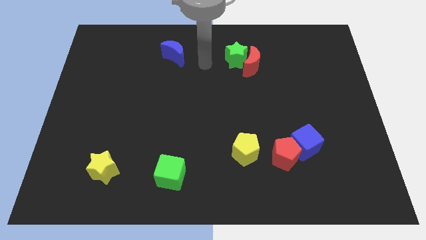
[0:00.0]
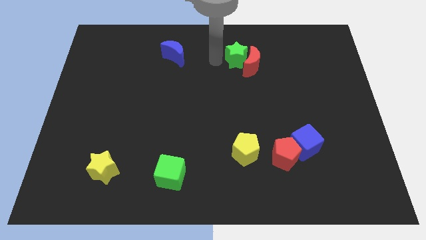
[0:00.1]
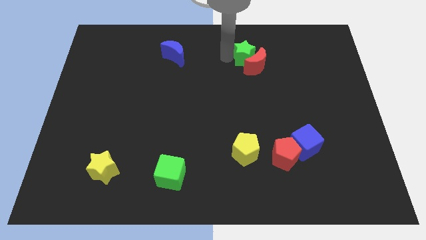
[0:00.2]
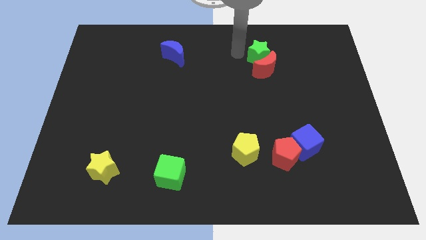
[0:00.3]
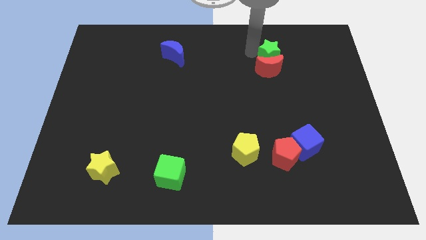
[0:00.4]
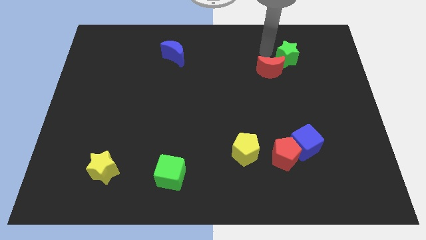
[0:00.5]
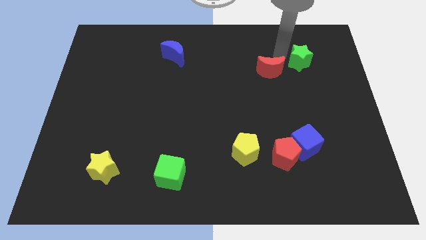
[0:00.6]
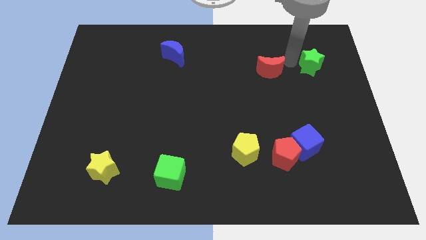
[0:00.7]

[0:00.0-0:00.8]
pull the red moon apart from the green star

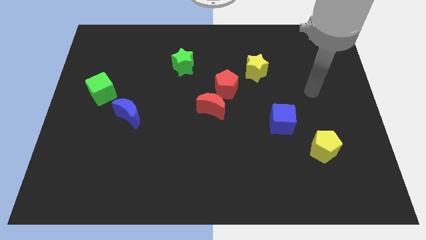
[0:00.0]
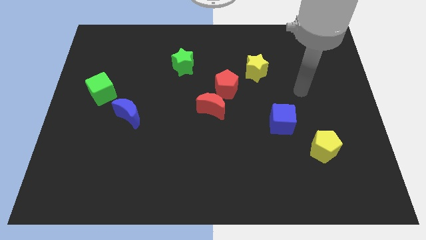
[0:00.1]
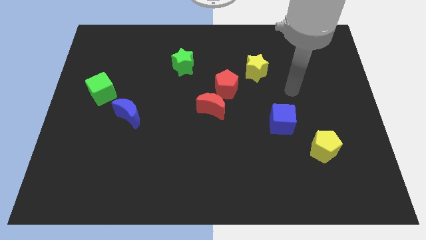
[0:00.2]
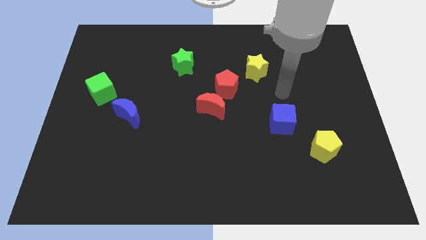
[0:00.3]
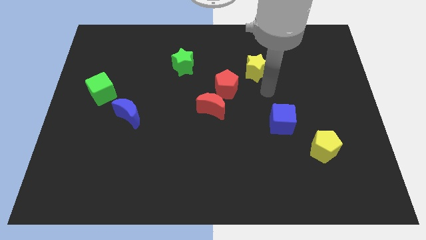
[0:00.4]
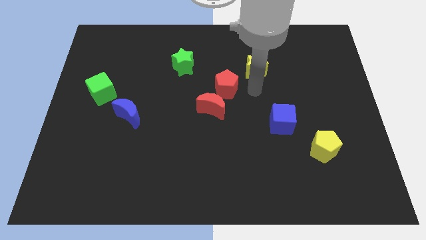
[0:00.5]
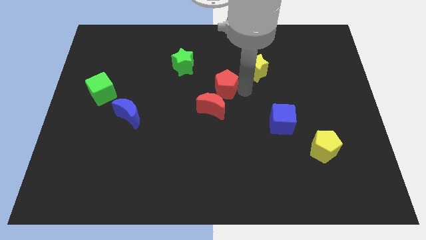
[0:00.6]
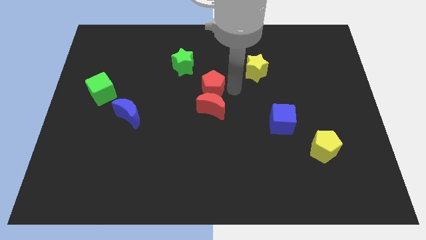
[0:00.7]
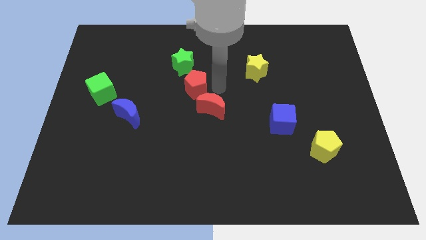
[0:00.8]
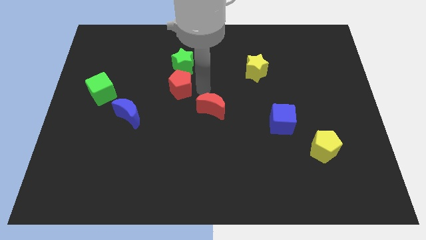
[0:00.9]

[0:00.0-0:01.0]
pull the red moon apart from the red pentagon

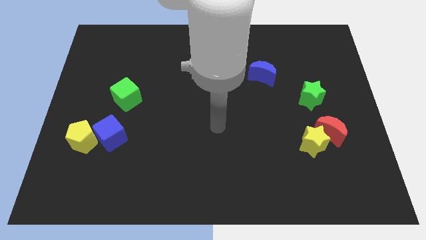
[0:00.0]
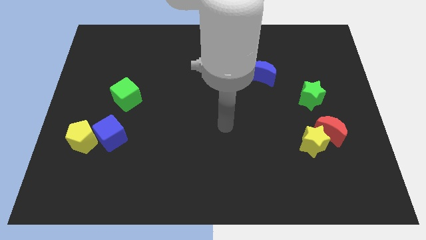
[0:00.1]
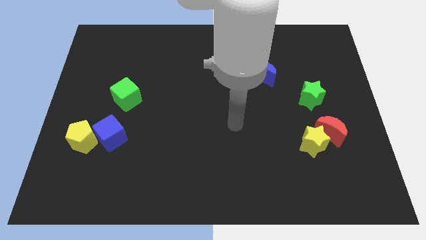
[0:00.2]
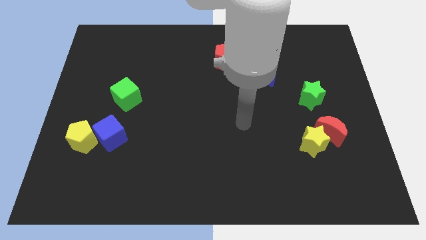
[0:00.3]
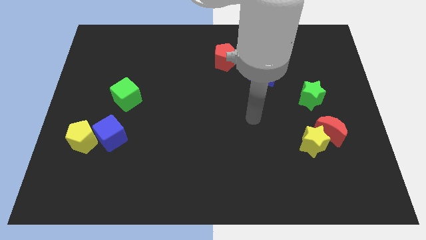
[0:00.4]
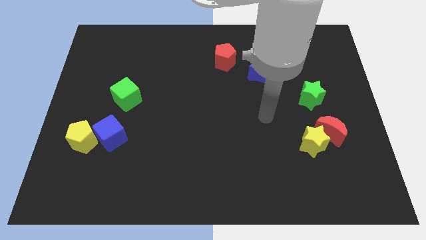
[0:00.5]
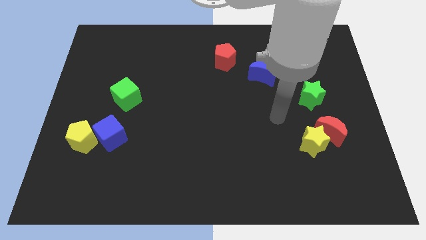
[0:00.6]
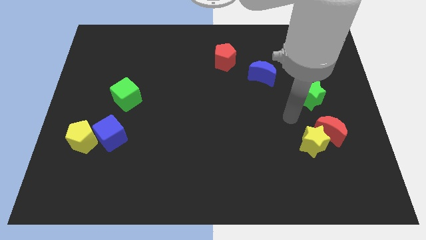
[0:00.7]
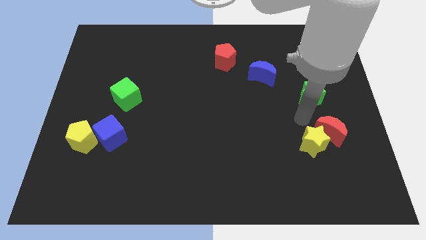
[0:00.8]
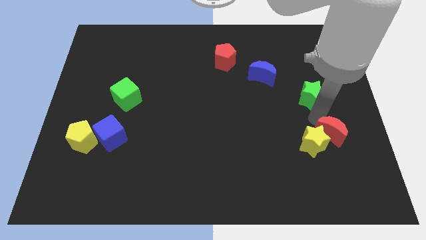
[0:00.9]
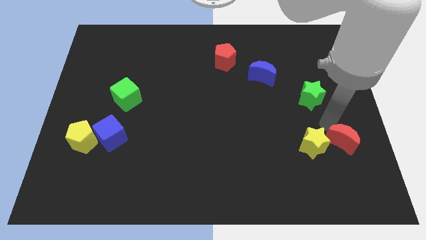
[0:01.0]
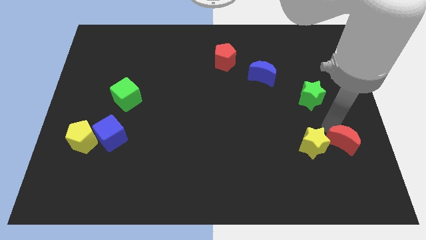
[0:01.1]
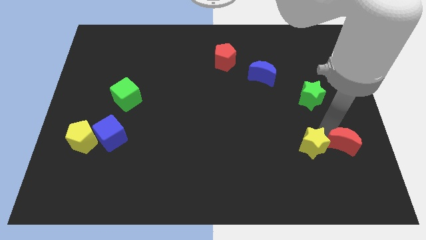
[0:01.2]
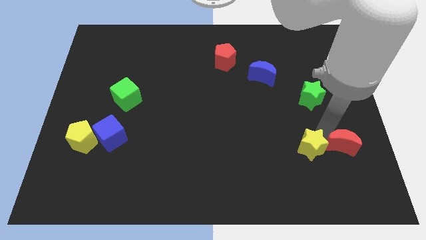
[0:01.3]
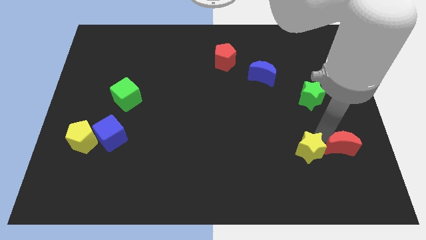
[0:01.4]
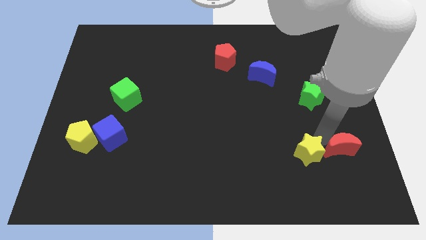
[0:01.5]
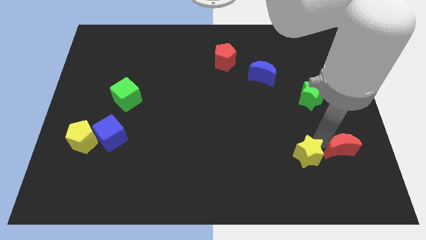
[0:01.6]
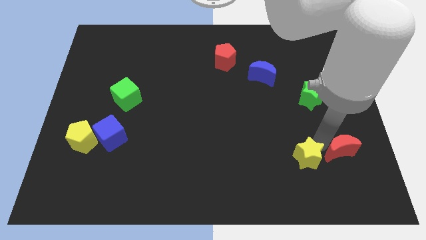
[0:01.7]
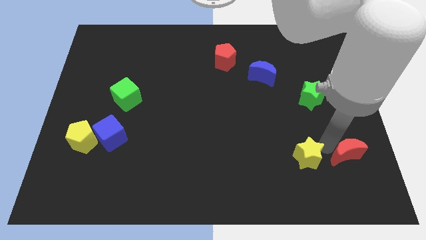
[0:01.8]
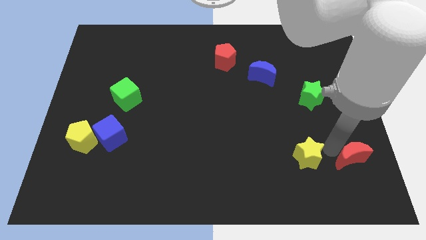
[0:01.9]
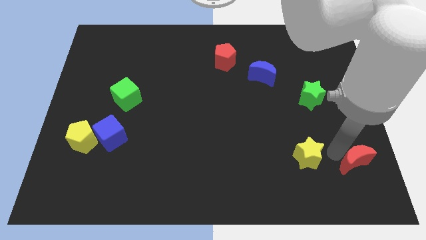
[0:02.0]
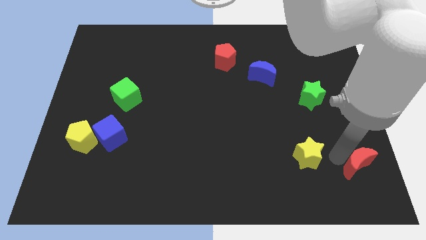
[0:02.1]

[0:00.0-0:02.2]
separate the yellow star from the red moon

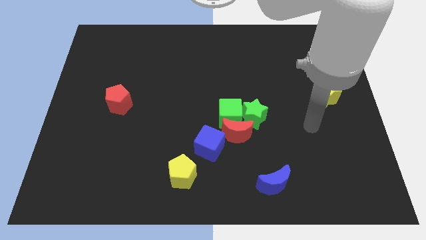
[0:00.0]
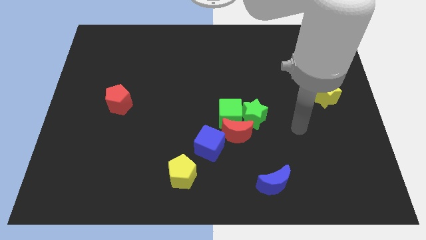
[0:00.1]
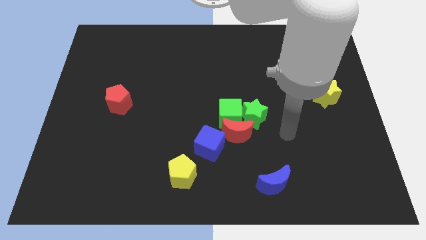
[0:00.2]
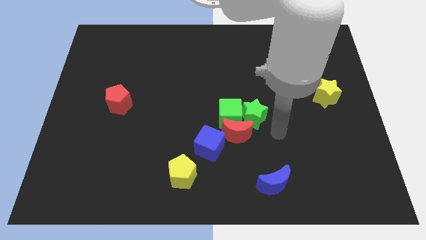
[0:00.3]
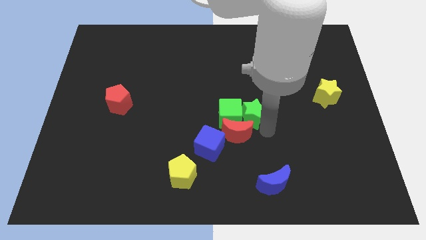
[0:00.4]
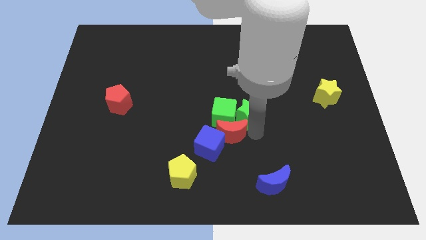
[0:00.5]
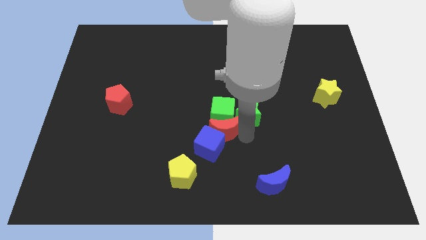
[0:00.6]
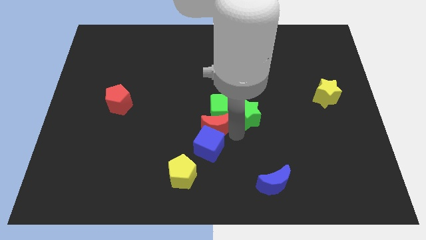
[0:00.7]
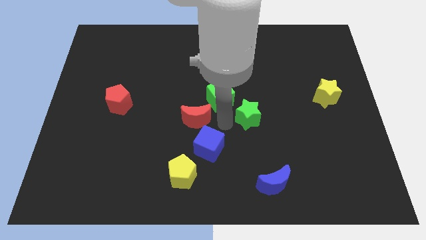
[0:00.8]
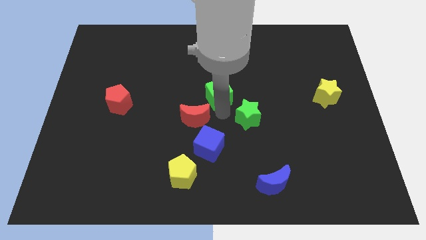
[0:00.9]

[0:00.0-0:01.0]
separate the green star from the green cube and red moon

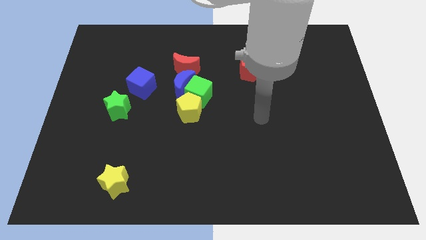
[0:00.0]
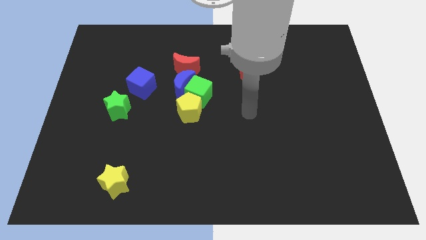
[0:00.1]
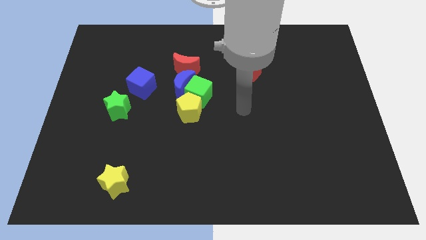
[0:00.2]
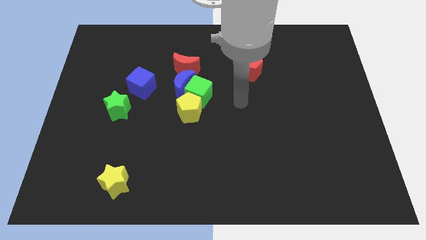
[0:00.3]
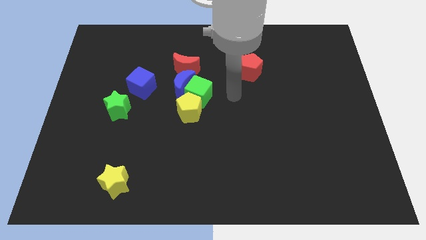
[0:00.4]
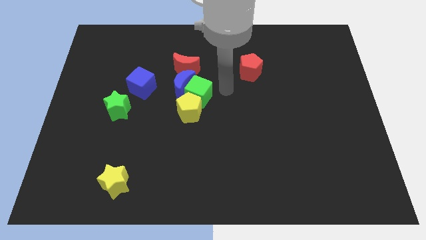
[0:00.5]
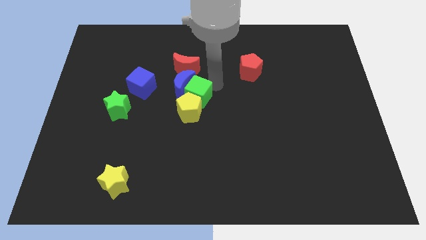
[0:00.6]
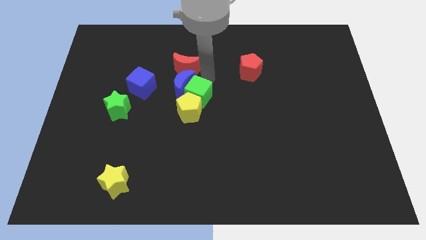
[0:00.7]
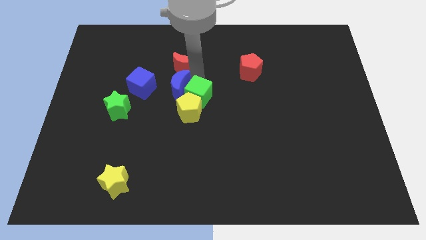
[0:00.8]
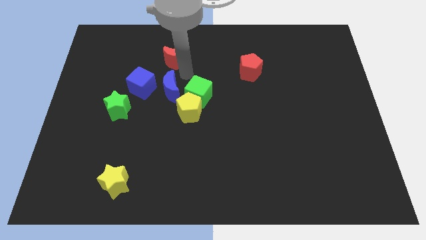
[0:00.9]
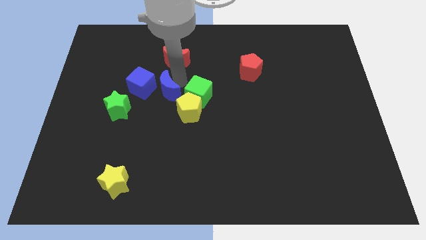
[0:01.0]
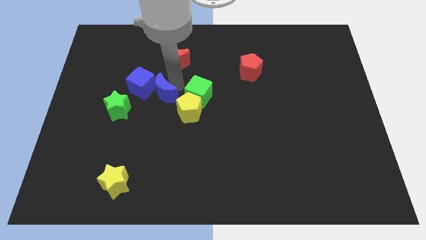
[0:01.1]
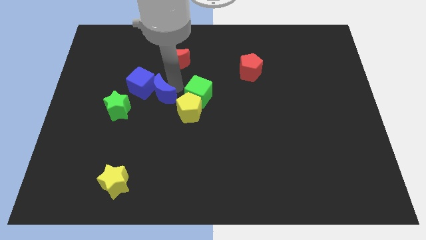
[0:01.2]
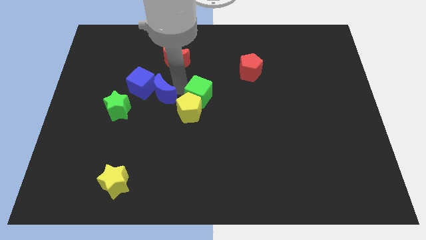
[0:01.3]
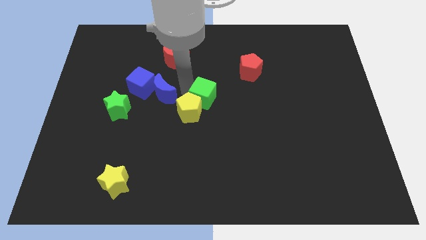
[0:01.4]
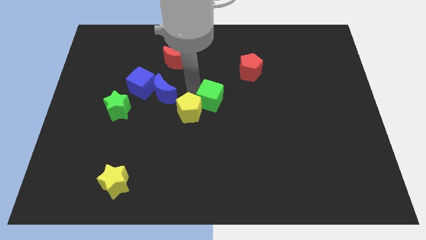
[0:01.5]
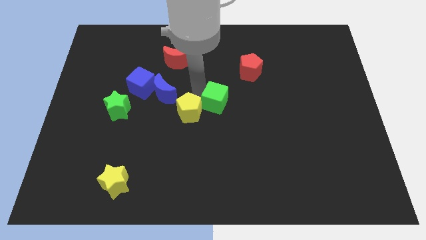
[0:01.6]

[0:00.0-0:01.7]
move the green cube away from the blue moon, yellow pentagon, and red moon

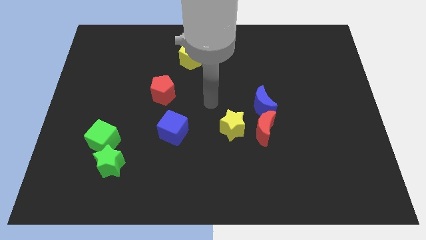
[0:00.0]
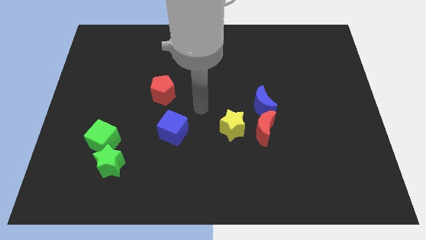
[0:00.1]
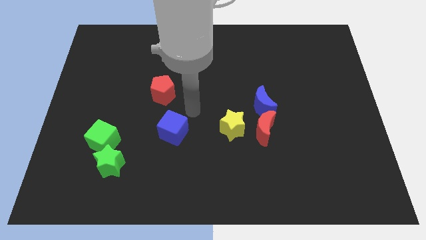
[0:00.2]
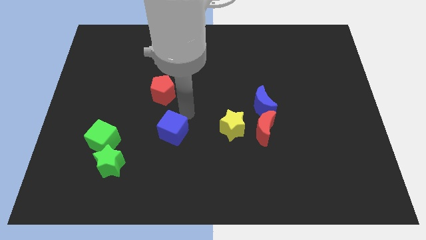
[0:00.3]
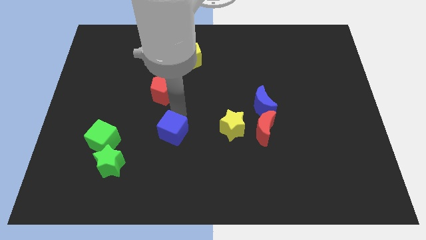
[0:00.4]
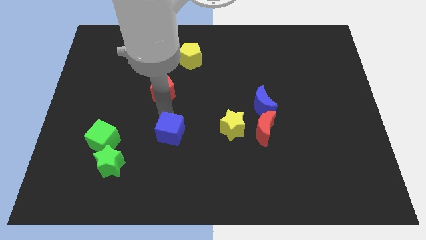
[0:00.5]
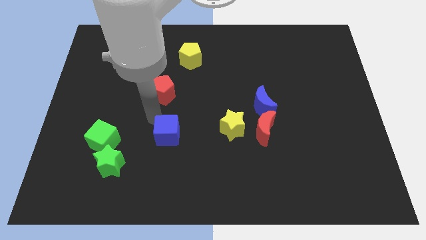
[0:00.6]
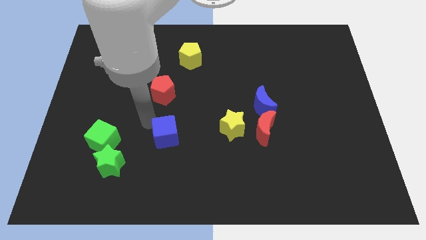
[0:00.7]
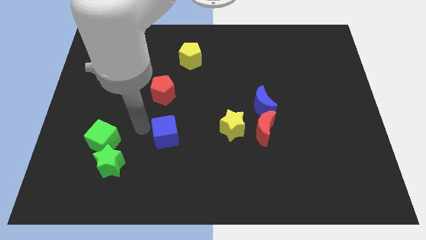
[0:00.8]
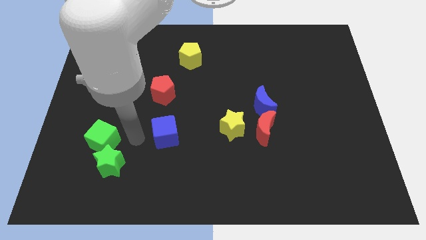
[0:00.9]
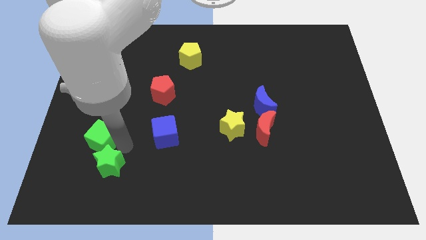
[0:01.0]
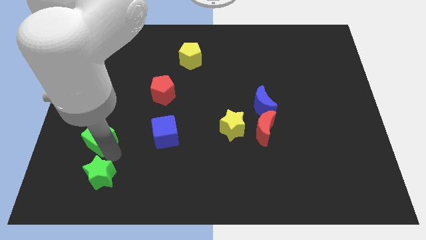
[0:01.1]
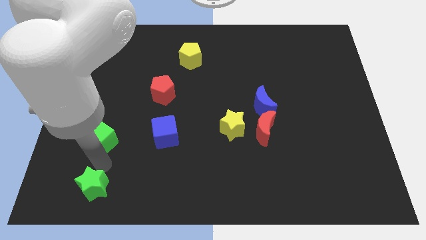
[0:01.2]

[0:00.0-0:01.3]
move the green cube away from the green star

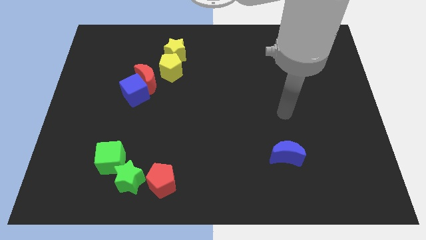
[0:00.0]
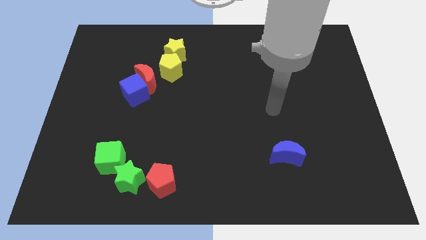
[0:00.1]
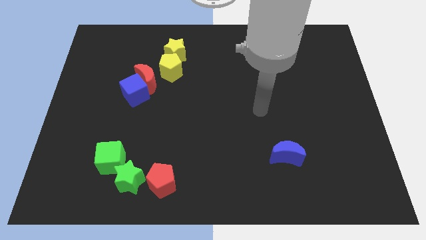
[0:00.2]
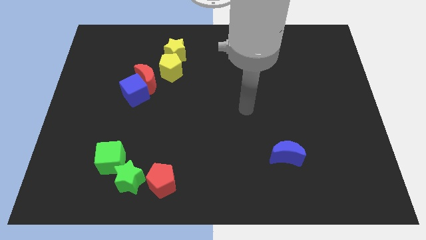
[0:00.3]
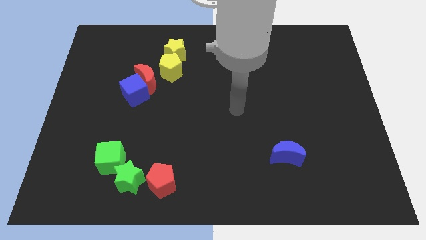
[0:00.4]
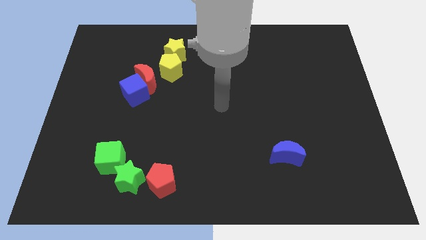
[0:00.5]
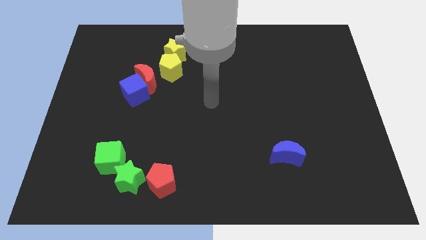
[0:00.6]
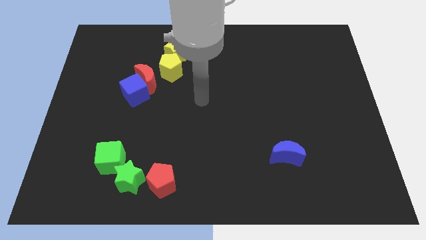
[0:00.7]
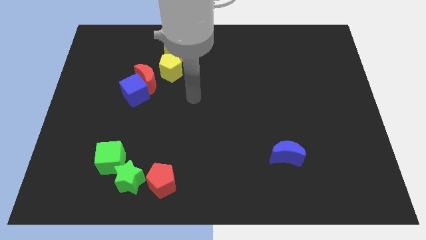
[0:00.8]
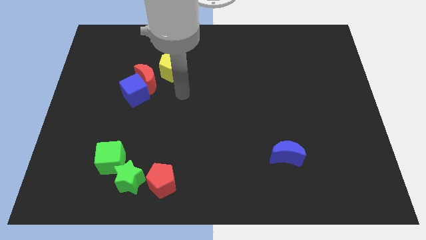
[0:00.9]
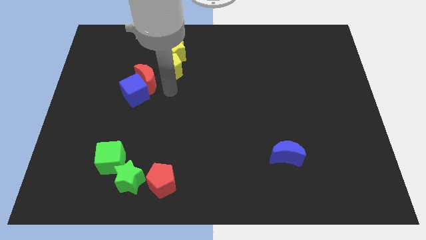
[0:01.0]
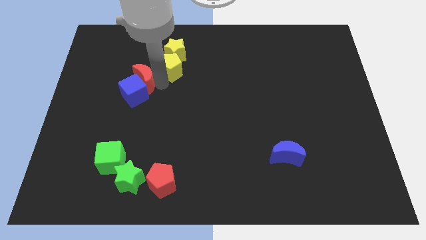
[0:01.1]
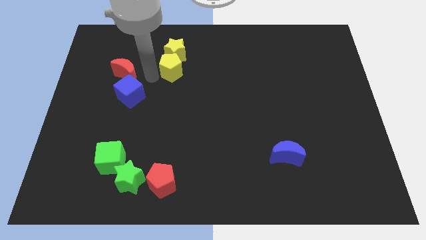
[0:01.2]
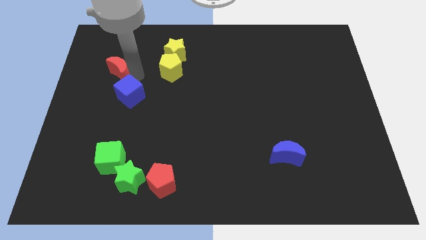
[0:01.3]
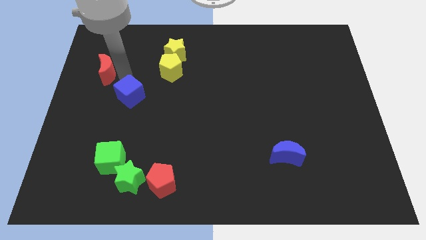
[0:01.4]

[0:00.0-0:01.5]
move the blue cube away from the red moon
